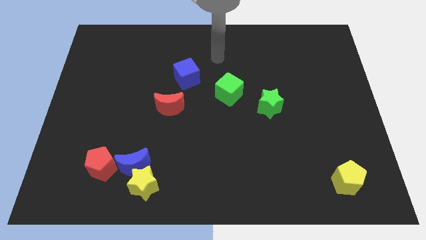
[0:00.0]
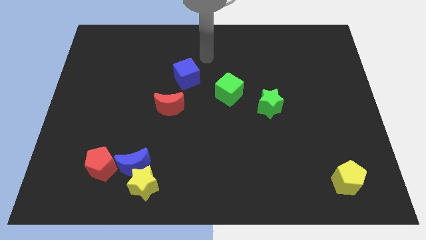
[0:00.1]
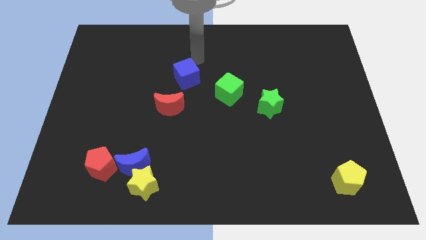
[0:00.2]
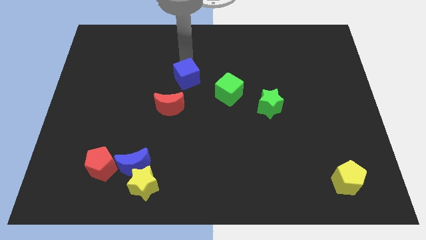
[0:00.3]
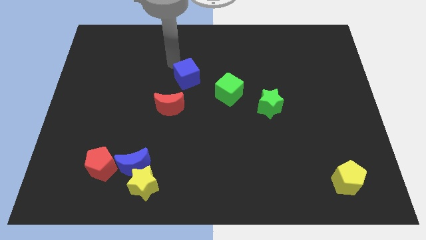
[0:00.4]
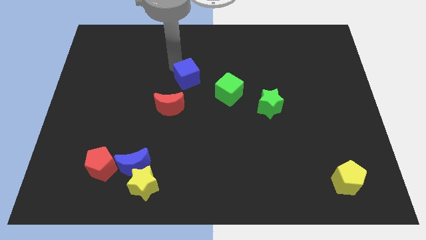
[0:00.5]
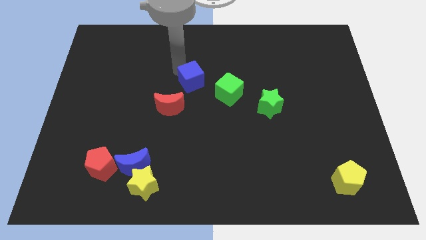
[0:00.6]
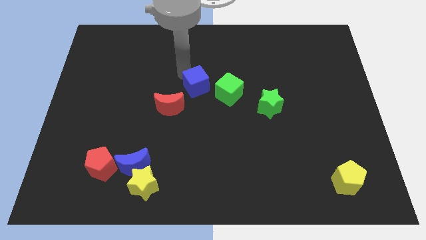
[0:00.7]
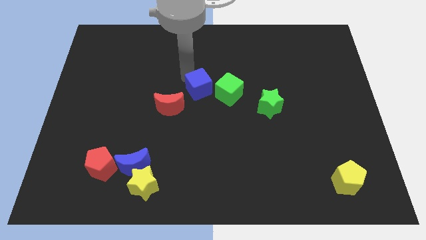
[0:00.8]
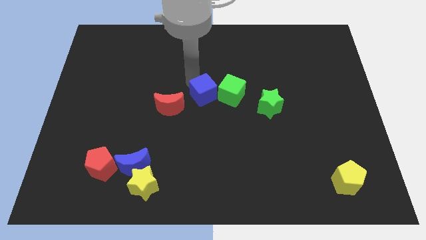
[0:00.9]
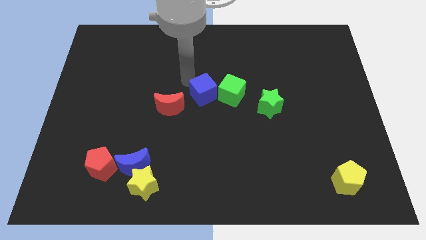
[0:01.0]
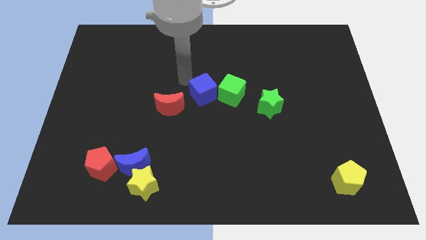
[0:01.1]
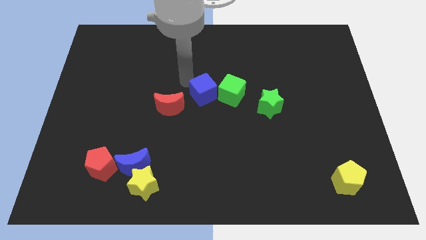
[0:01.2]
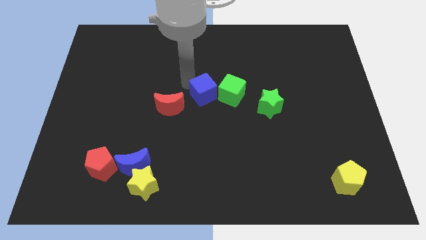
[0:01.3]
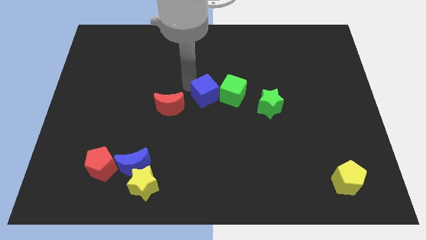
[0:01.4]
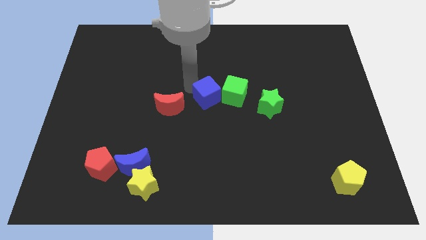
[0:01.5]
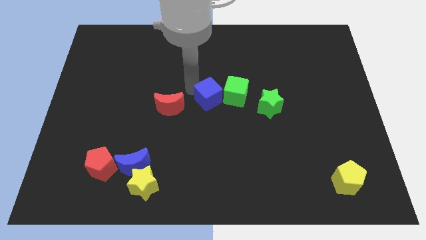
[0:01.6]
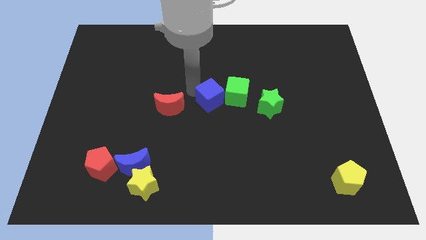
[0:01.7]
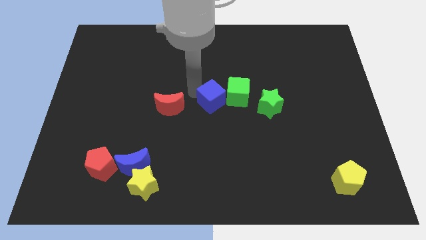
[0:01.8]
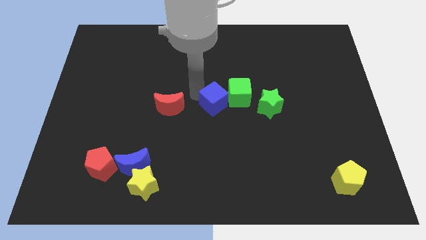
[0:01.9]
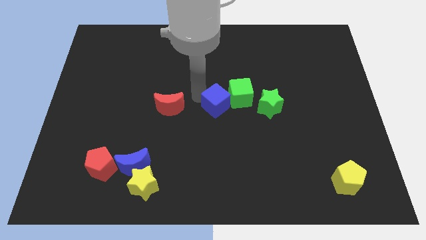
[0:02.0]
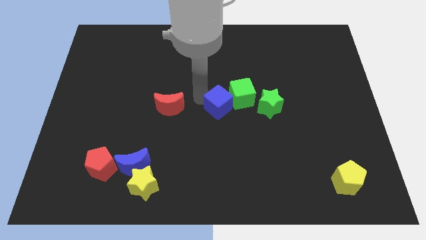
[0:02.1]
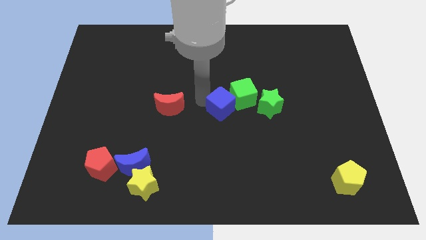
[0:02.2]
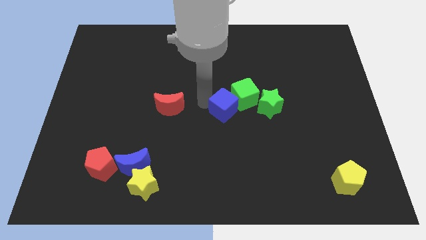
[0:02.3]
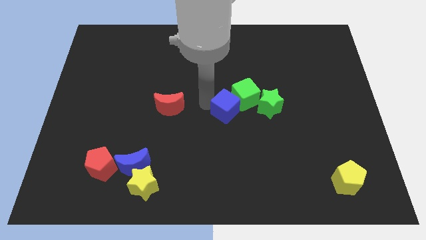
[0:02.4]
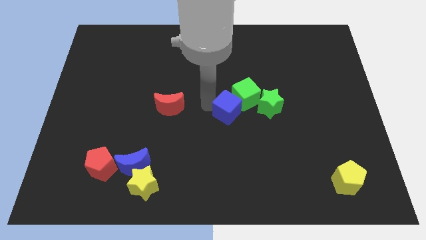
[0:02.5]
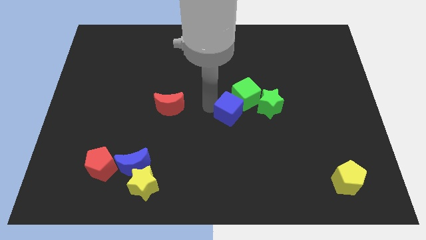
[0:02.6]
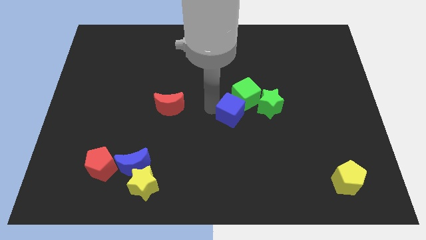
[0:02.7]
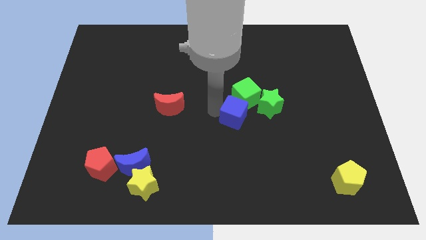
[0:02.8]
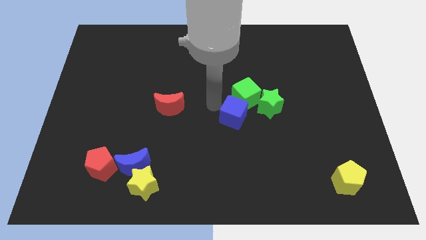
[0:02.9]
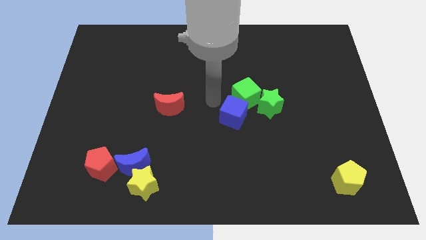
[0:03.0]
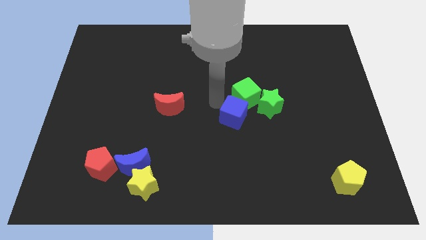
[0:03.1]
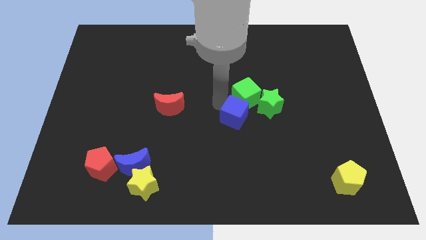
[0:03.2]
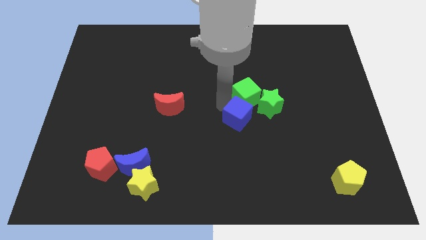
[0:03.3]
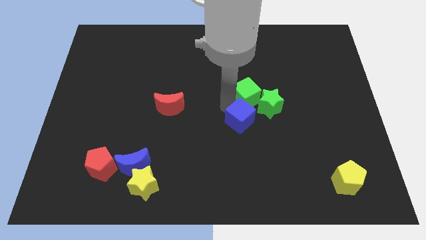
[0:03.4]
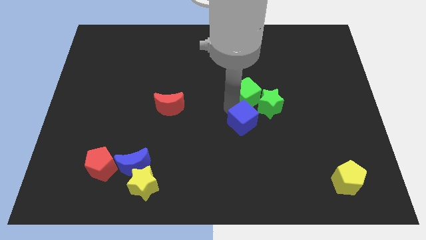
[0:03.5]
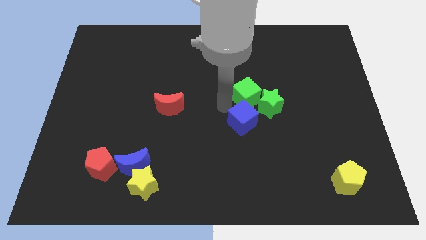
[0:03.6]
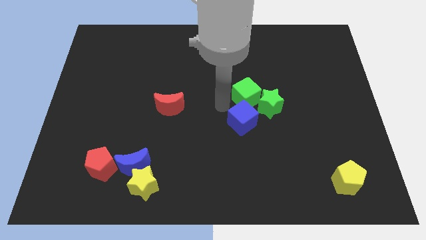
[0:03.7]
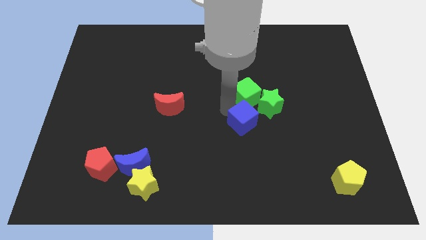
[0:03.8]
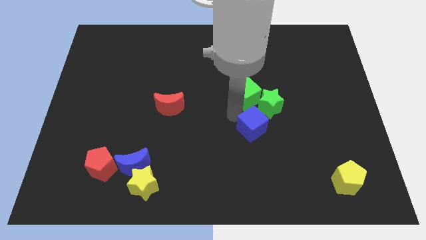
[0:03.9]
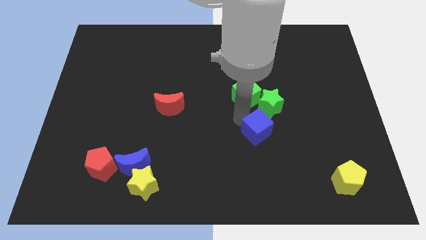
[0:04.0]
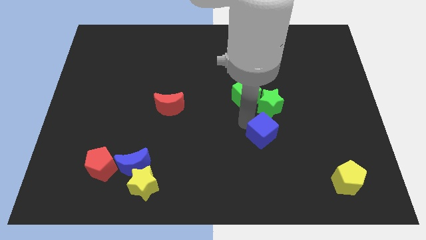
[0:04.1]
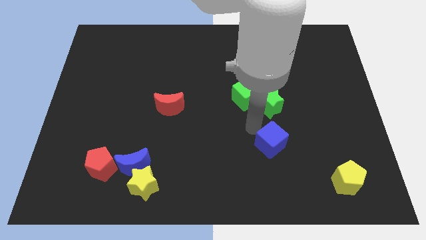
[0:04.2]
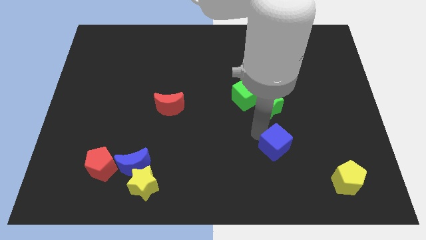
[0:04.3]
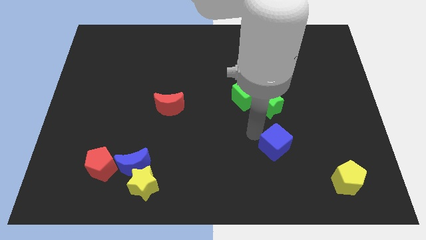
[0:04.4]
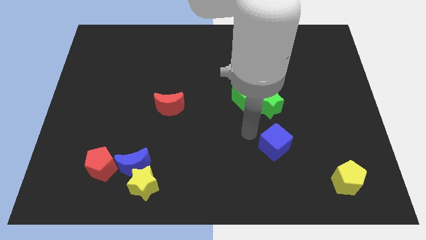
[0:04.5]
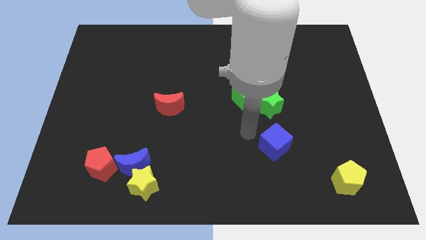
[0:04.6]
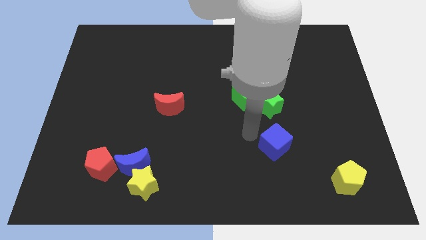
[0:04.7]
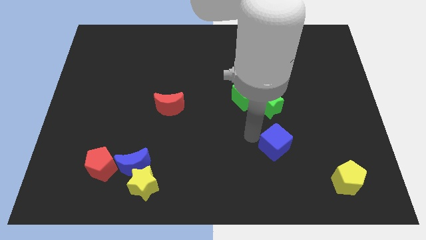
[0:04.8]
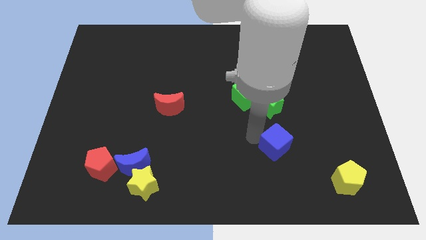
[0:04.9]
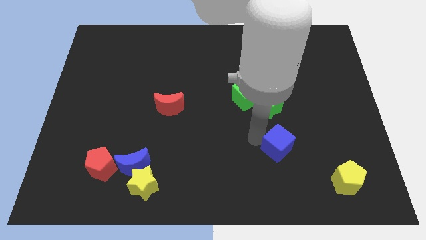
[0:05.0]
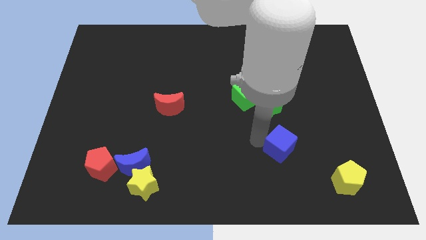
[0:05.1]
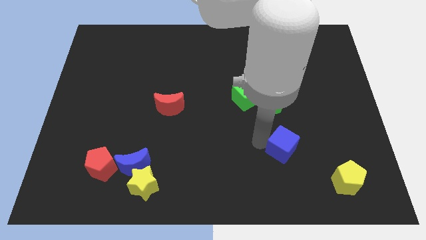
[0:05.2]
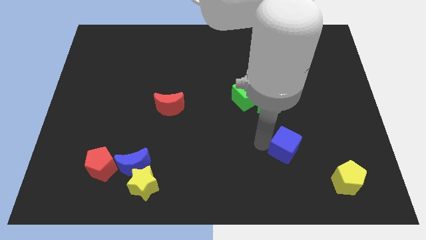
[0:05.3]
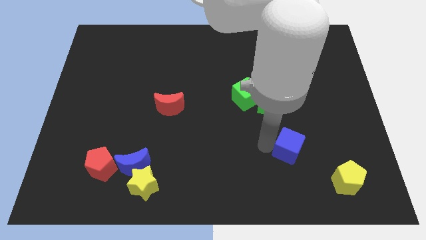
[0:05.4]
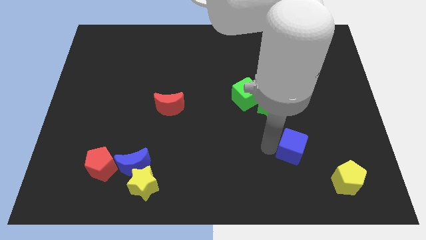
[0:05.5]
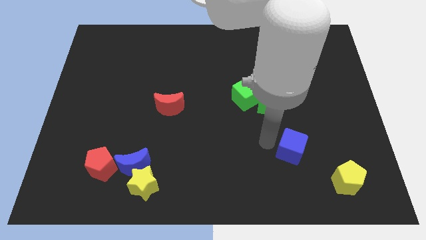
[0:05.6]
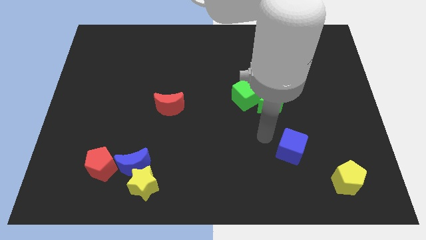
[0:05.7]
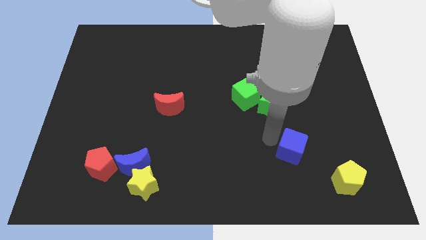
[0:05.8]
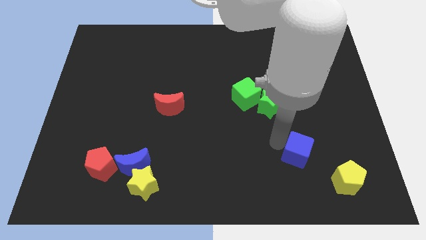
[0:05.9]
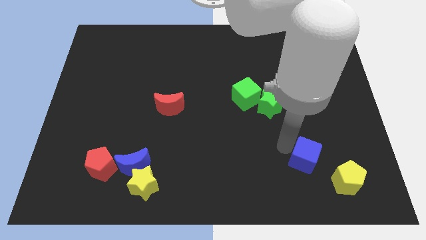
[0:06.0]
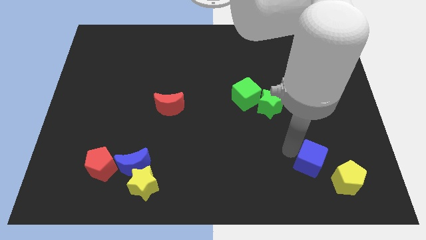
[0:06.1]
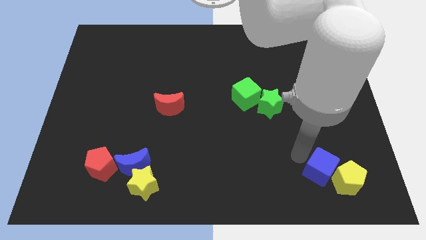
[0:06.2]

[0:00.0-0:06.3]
push the blue cube close to the yellow pentagon

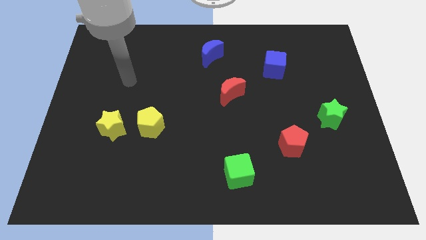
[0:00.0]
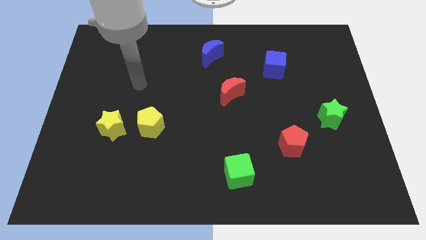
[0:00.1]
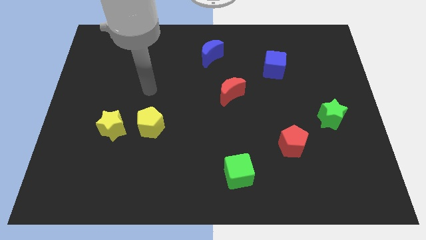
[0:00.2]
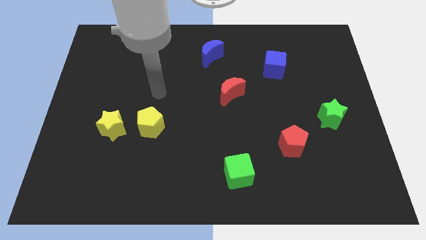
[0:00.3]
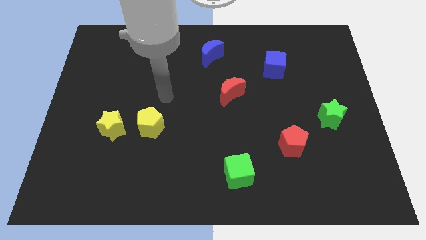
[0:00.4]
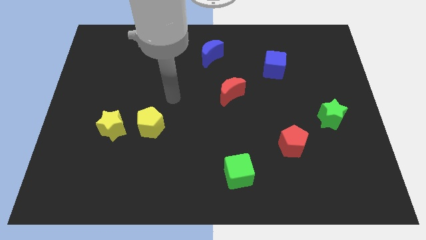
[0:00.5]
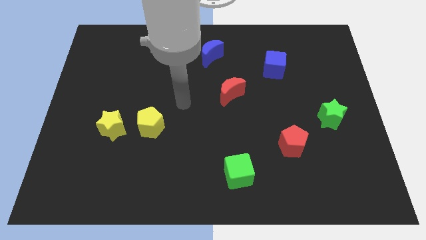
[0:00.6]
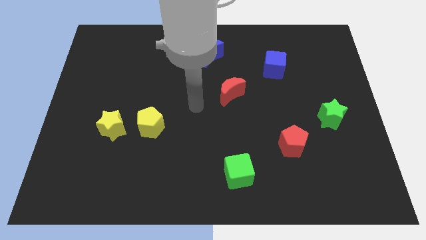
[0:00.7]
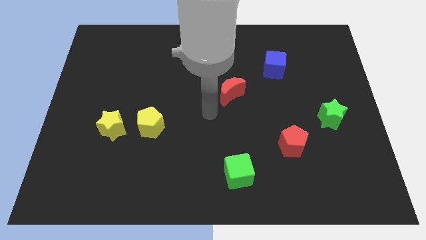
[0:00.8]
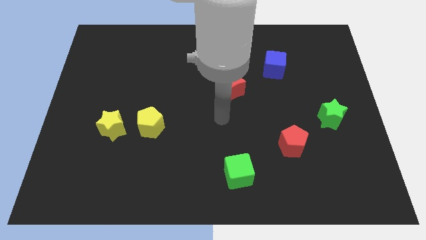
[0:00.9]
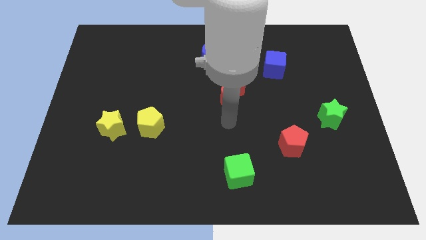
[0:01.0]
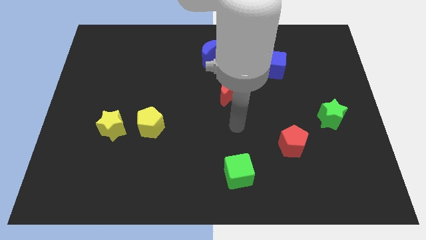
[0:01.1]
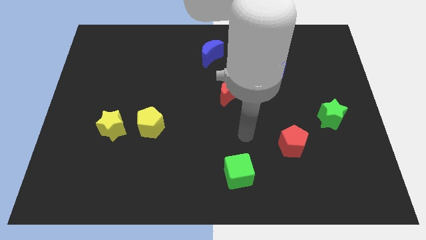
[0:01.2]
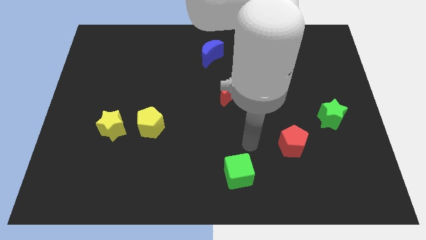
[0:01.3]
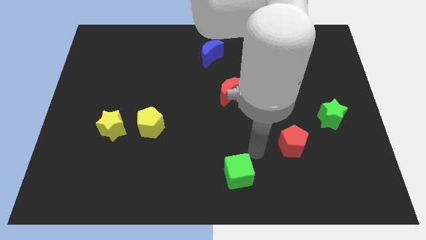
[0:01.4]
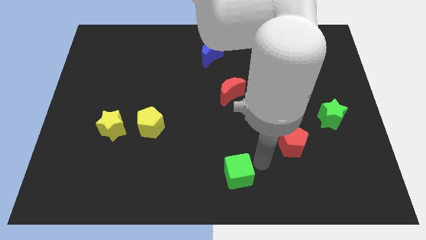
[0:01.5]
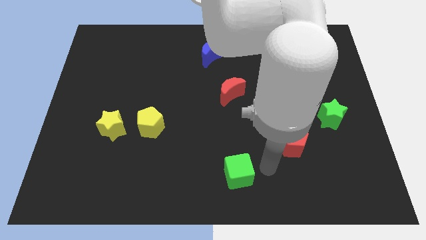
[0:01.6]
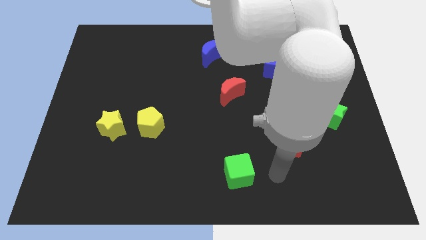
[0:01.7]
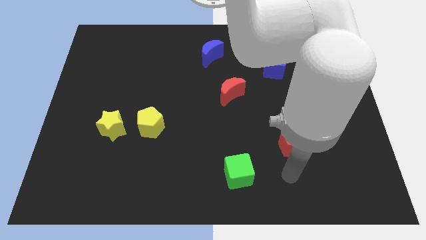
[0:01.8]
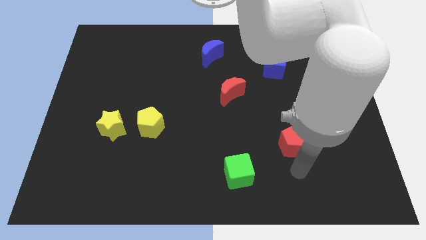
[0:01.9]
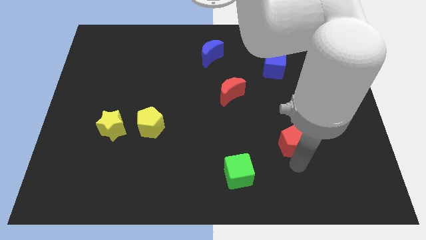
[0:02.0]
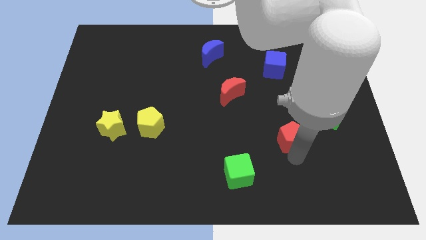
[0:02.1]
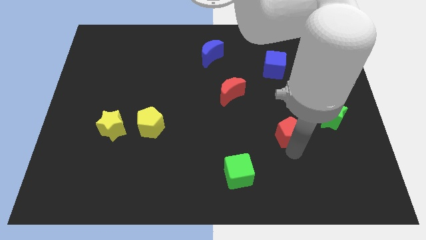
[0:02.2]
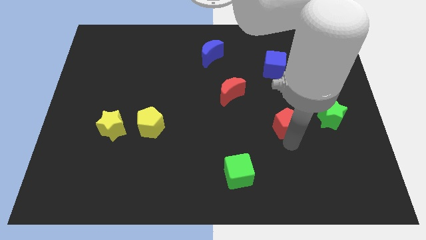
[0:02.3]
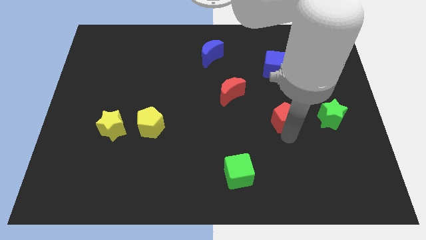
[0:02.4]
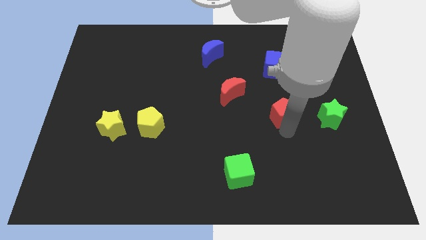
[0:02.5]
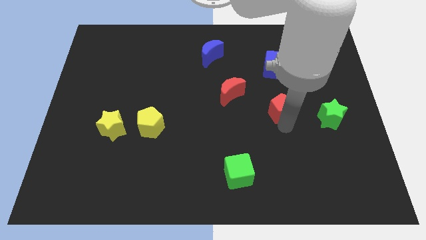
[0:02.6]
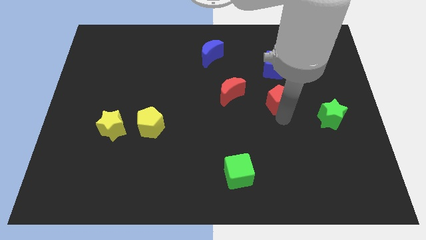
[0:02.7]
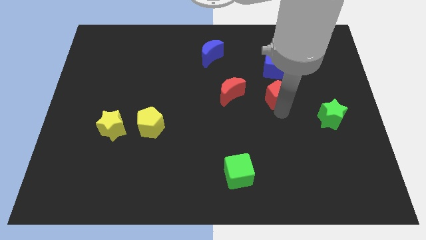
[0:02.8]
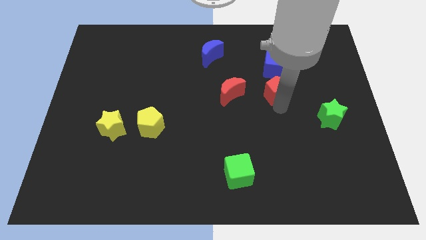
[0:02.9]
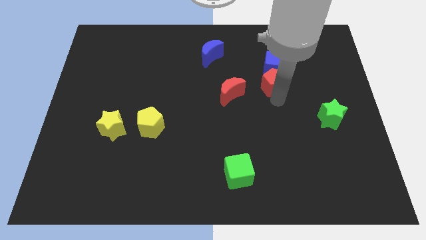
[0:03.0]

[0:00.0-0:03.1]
slide the red pentagon towards the blue cube
